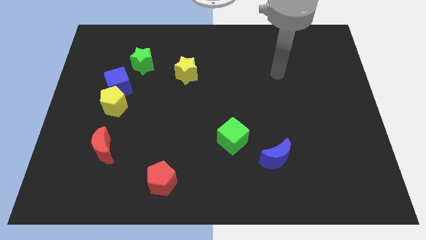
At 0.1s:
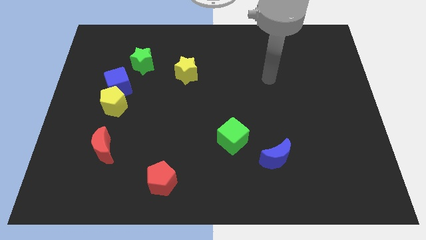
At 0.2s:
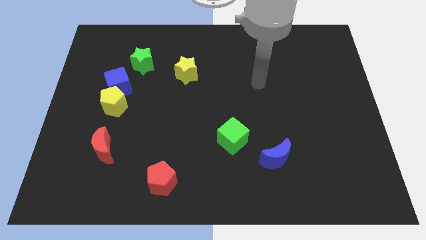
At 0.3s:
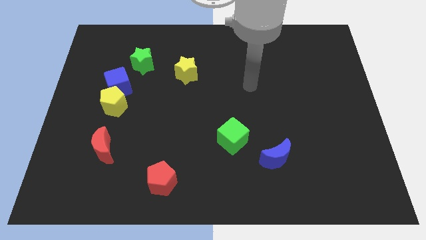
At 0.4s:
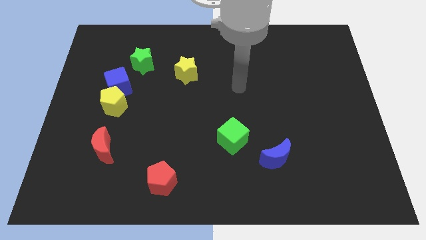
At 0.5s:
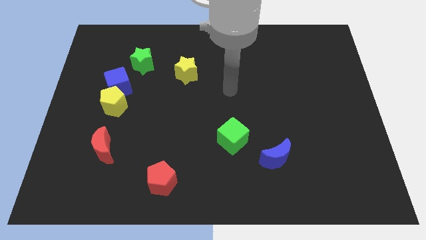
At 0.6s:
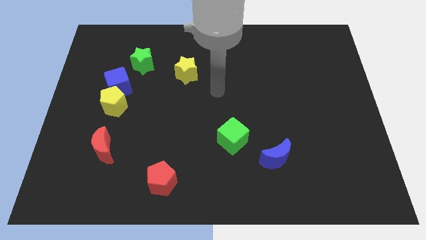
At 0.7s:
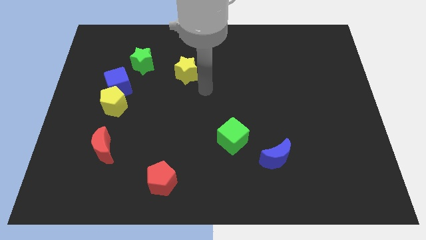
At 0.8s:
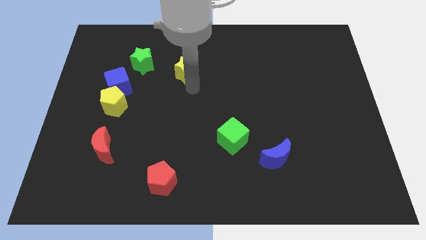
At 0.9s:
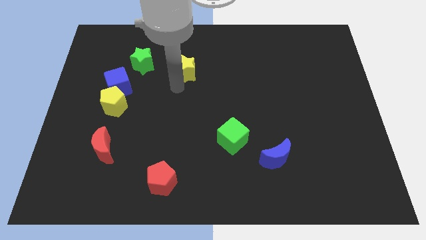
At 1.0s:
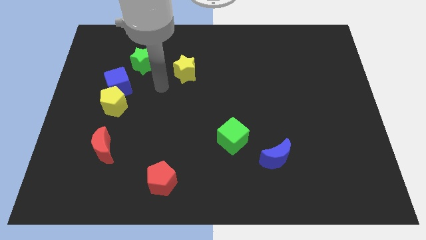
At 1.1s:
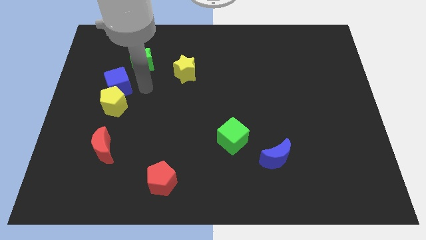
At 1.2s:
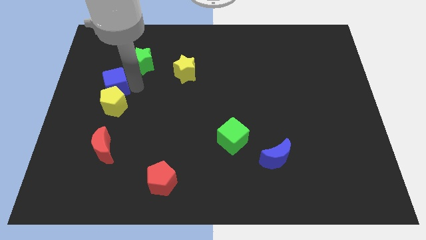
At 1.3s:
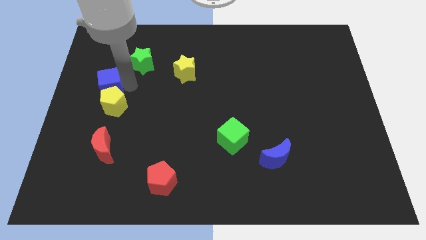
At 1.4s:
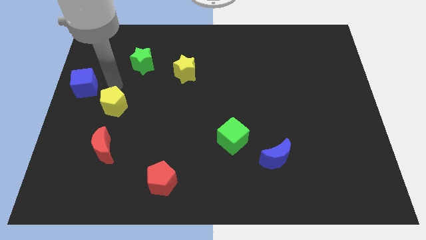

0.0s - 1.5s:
move the yellow pentagon away from the blue cube

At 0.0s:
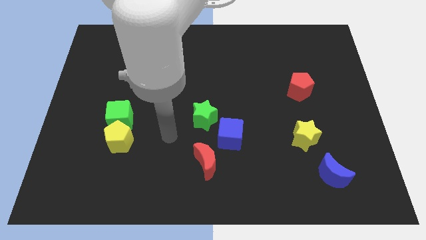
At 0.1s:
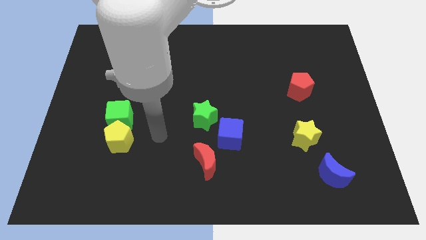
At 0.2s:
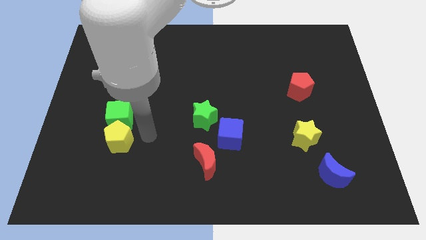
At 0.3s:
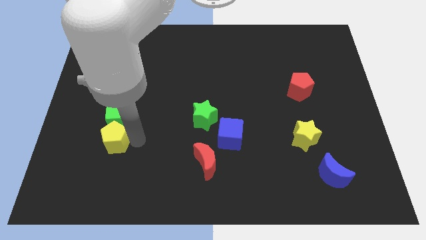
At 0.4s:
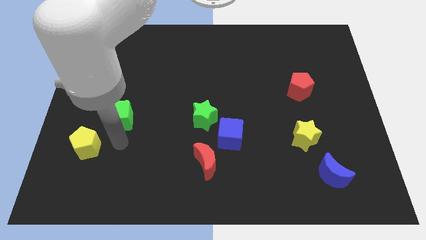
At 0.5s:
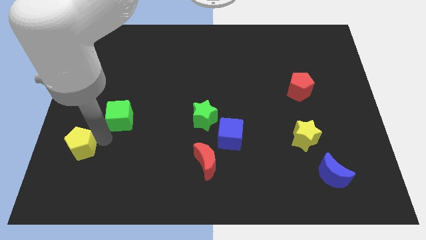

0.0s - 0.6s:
separate the green cube from the yellow pentagon

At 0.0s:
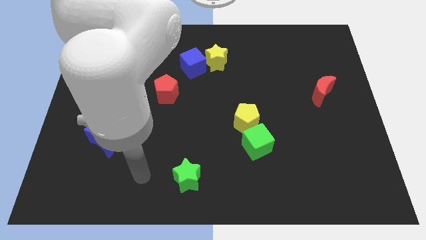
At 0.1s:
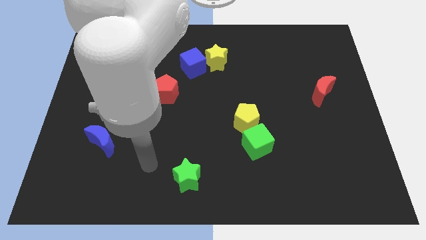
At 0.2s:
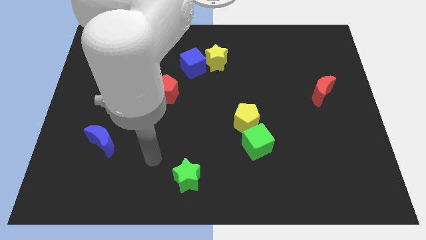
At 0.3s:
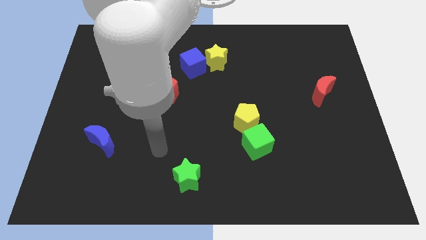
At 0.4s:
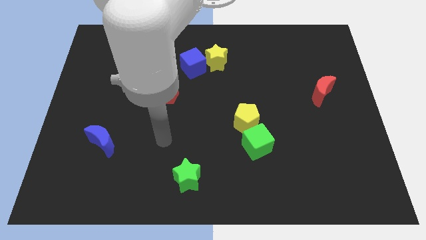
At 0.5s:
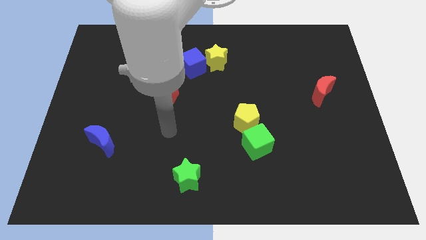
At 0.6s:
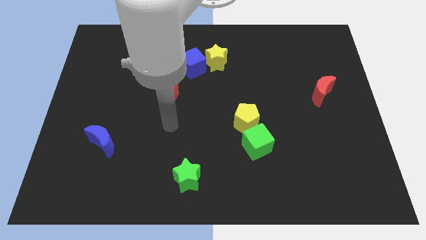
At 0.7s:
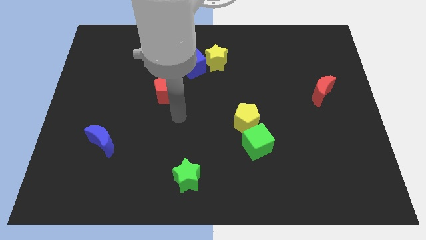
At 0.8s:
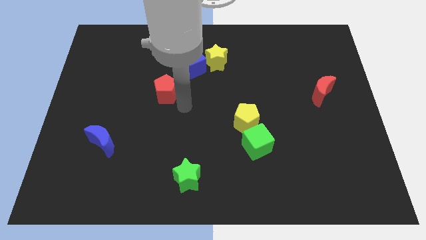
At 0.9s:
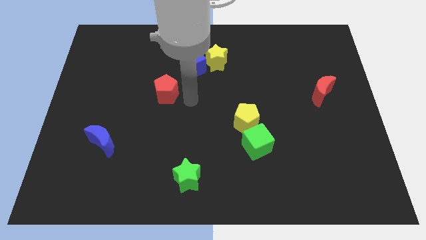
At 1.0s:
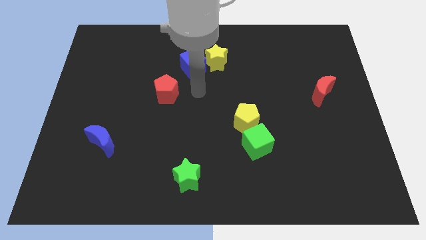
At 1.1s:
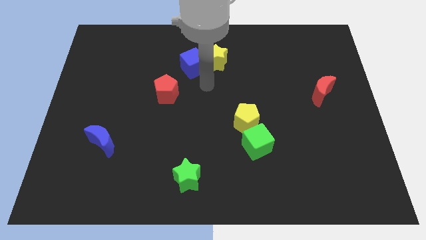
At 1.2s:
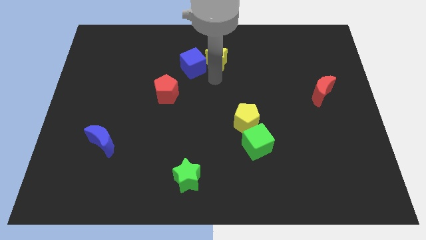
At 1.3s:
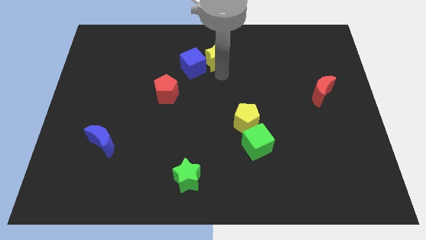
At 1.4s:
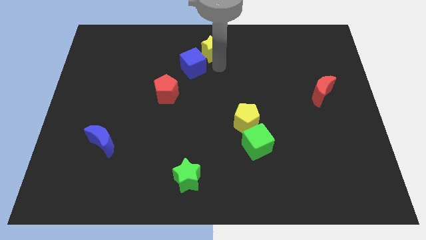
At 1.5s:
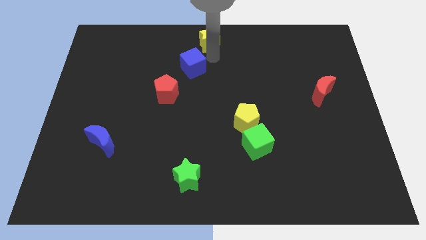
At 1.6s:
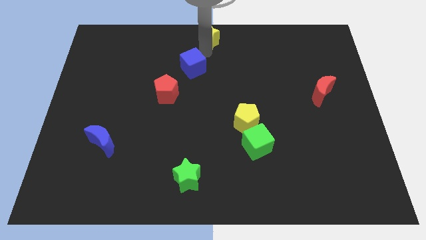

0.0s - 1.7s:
pull the blue cube apart from the yellow star

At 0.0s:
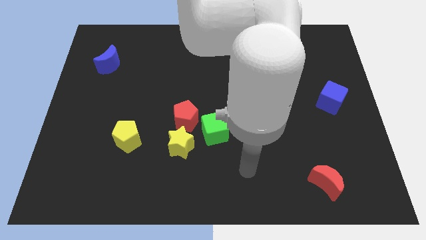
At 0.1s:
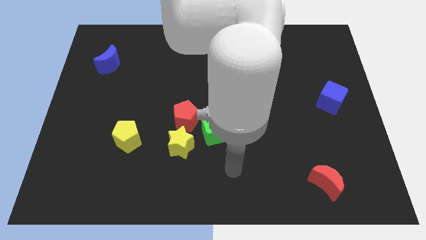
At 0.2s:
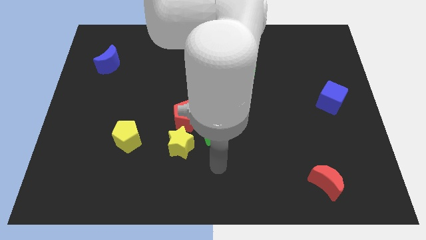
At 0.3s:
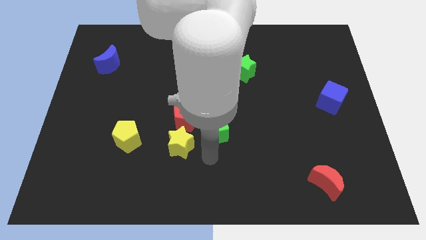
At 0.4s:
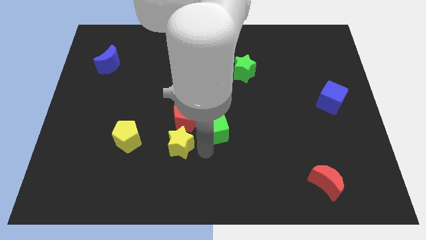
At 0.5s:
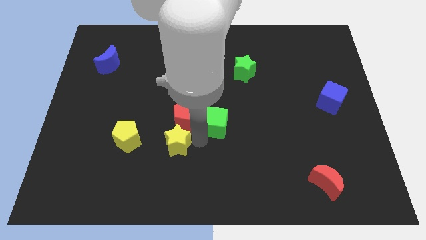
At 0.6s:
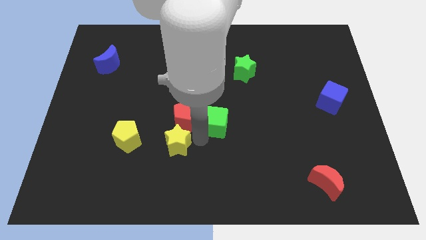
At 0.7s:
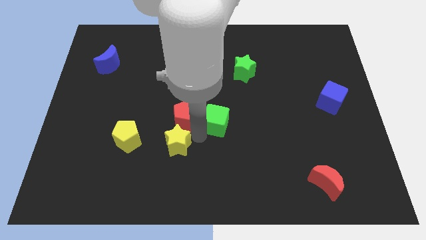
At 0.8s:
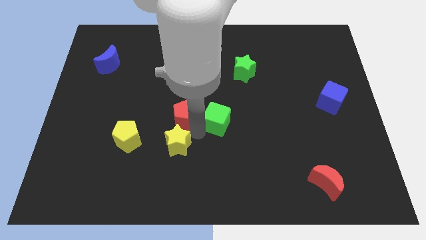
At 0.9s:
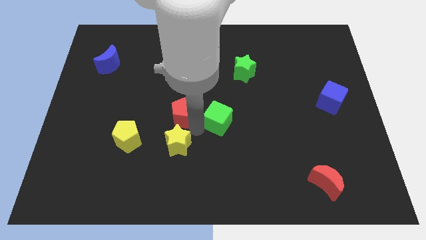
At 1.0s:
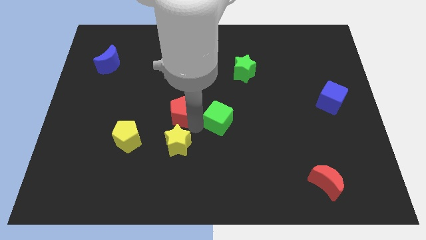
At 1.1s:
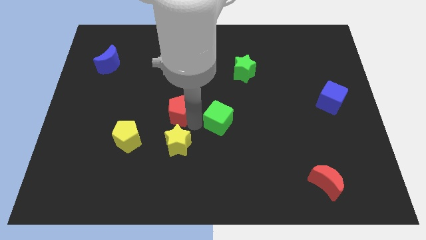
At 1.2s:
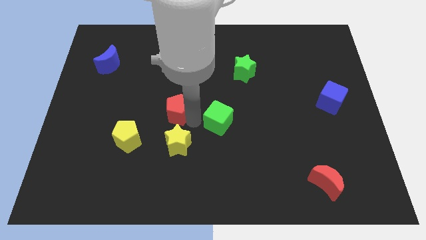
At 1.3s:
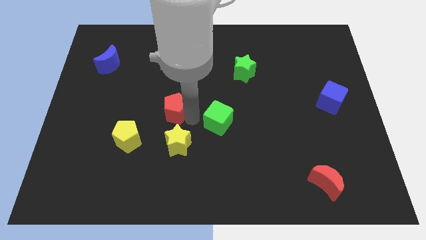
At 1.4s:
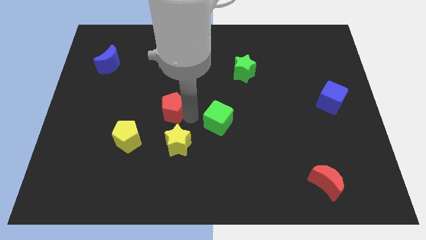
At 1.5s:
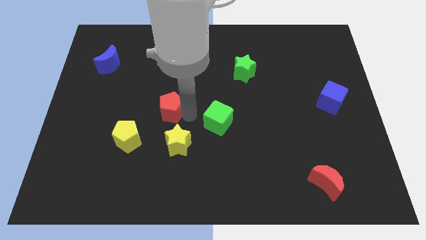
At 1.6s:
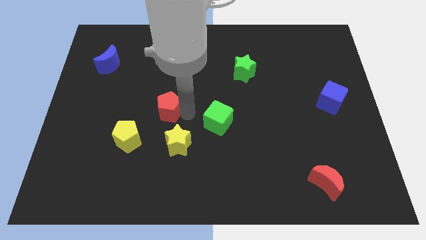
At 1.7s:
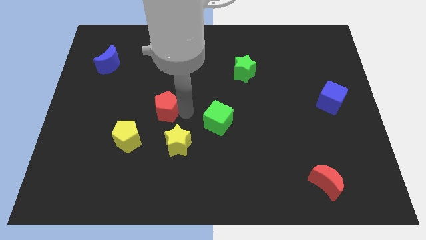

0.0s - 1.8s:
move the red pentagon away from the yellow star and green cube

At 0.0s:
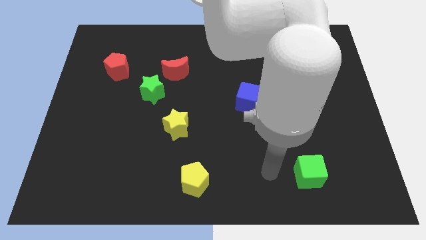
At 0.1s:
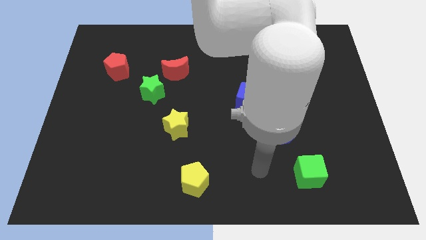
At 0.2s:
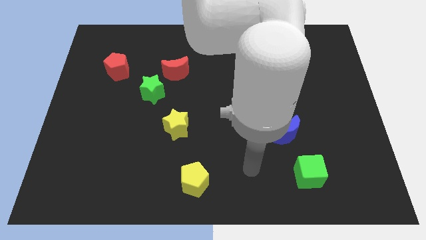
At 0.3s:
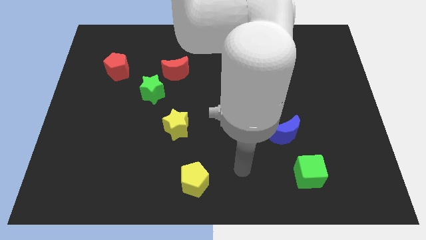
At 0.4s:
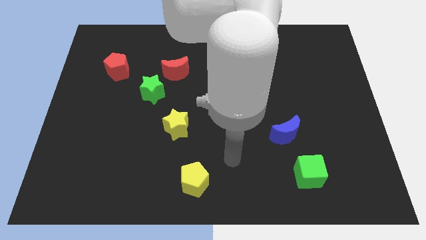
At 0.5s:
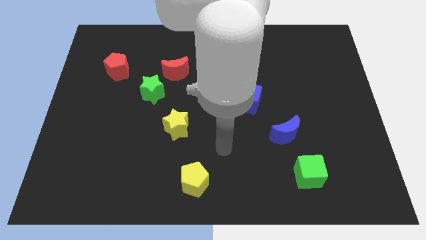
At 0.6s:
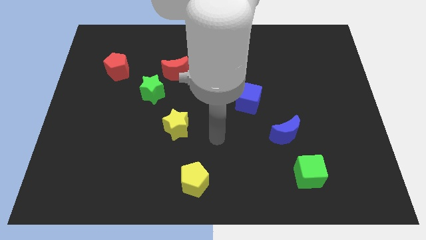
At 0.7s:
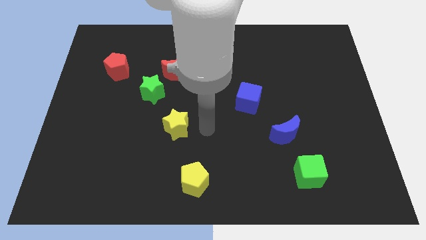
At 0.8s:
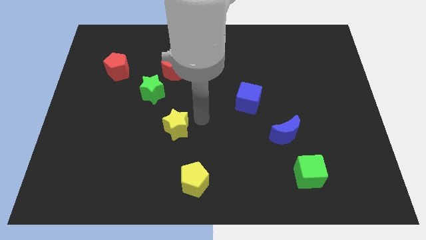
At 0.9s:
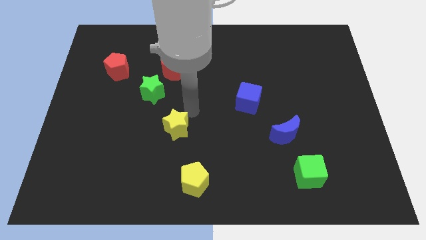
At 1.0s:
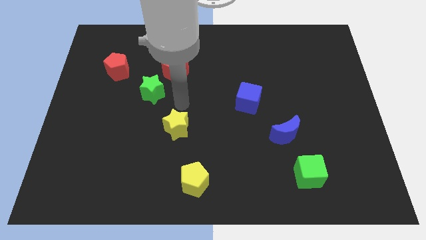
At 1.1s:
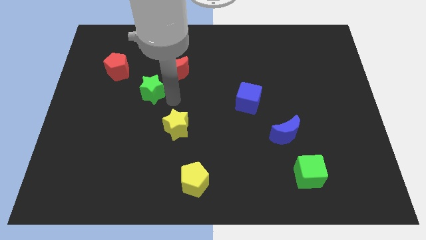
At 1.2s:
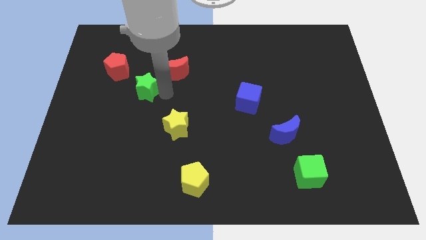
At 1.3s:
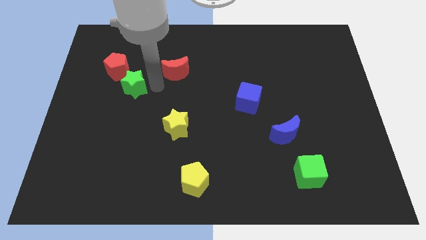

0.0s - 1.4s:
pull the red moon apart from the green star

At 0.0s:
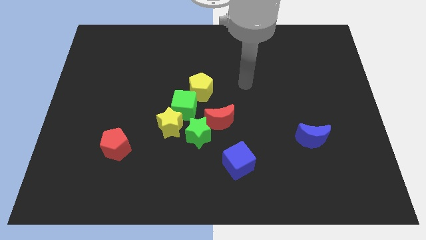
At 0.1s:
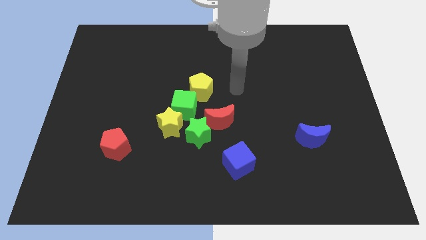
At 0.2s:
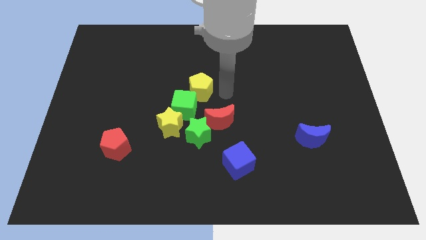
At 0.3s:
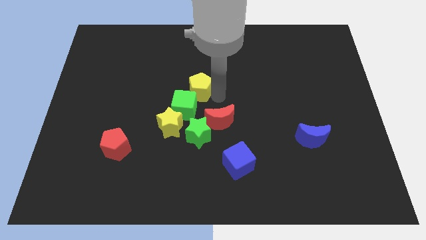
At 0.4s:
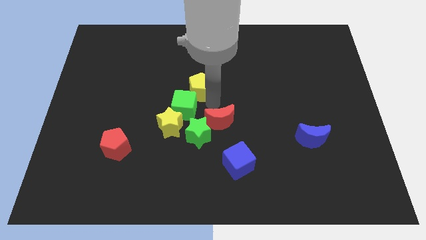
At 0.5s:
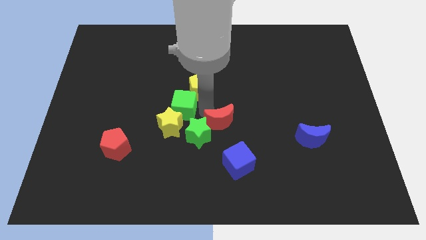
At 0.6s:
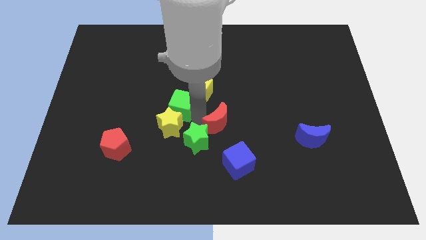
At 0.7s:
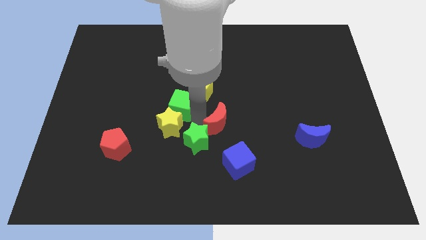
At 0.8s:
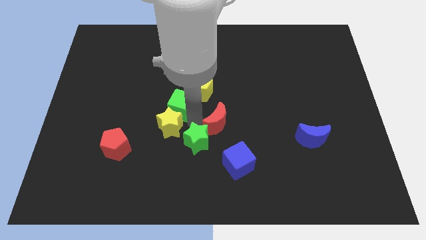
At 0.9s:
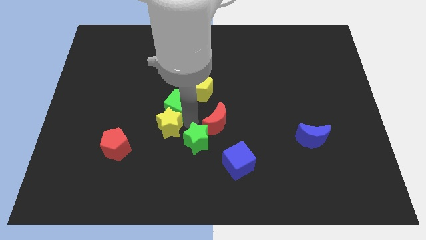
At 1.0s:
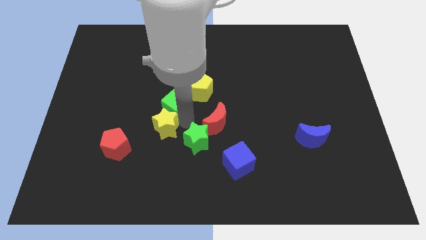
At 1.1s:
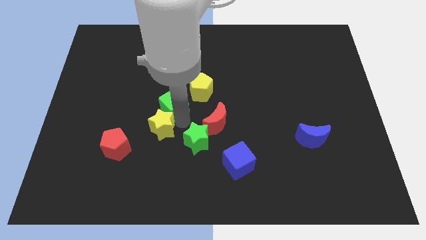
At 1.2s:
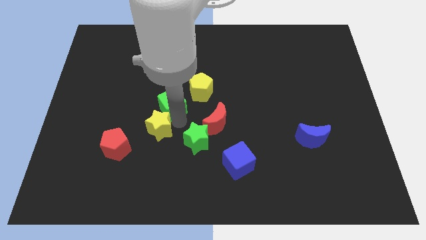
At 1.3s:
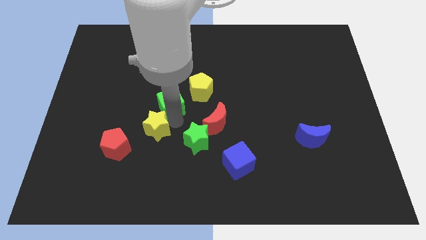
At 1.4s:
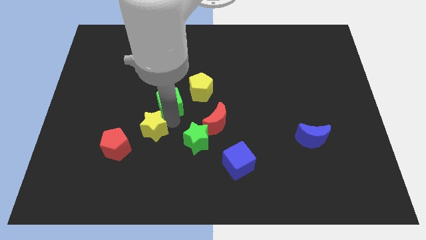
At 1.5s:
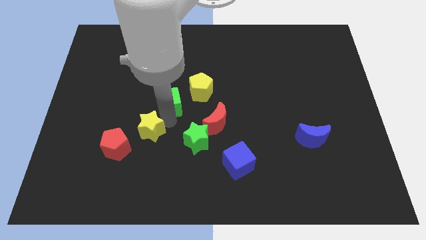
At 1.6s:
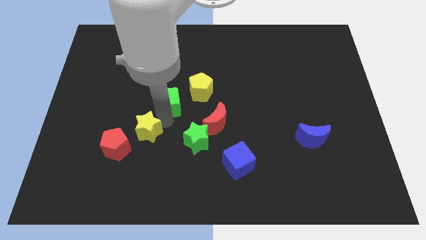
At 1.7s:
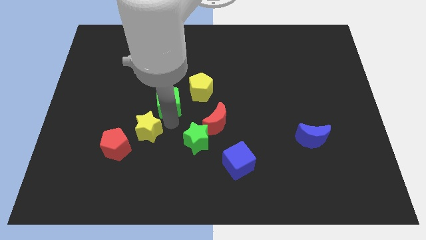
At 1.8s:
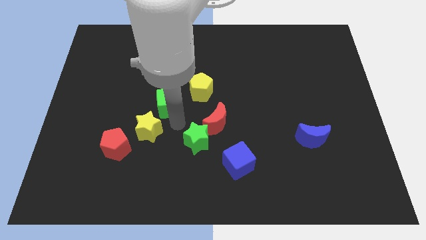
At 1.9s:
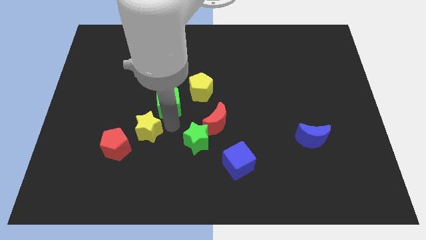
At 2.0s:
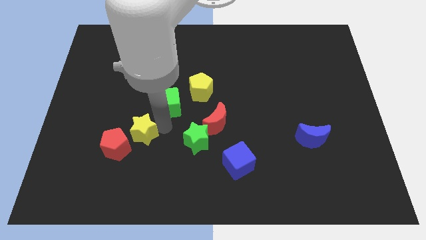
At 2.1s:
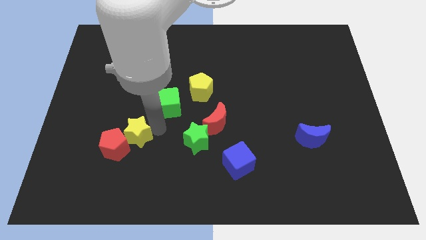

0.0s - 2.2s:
pull the yellow star apart from the green cube and green star
